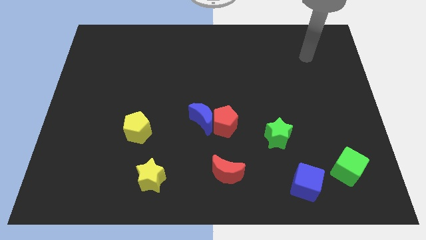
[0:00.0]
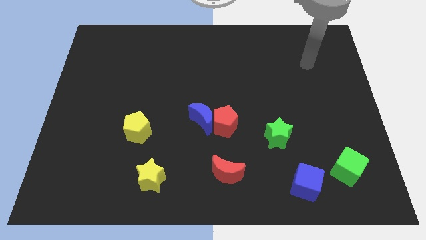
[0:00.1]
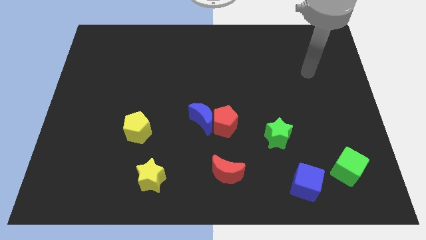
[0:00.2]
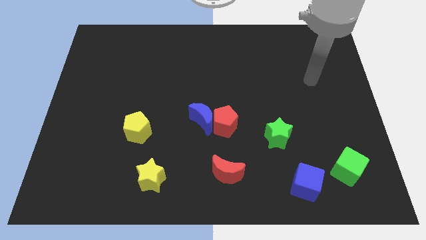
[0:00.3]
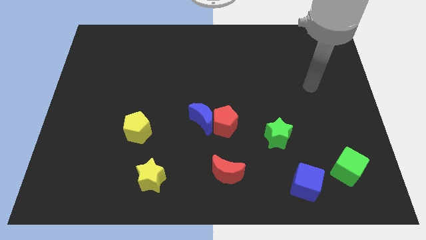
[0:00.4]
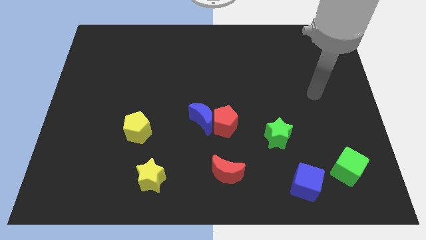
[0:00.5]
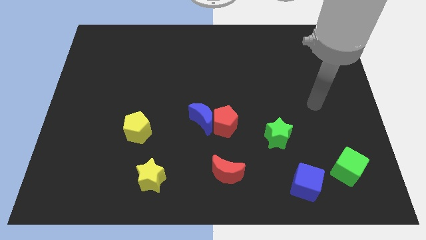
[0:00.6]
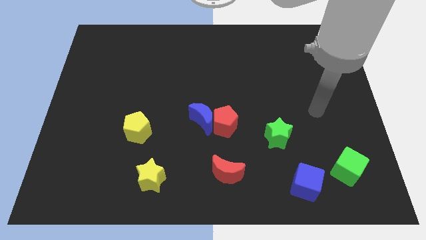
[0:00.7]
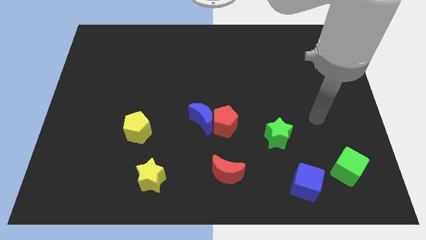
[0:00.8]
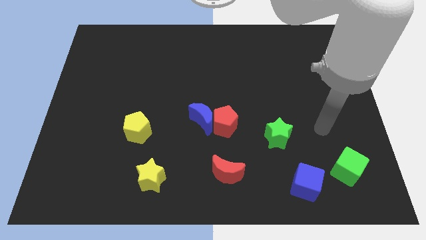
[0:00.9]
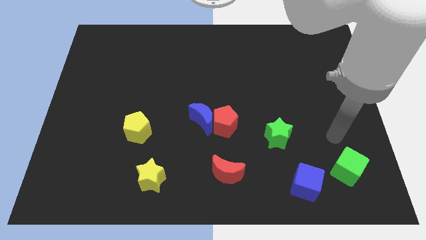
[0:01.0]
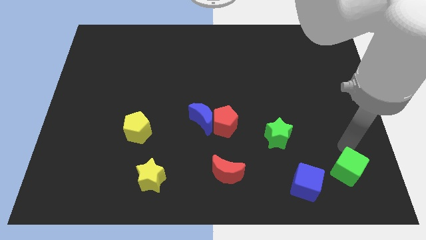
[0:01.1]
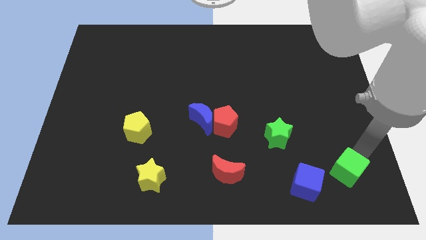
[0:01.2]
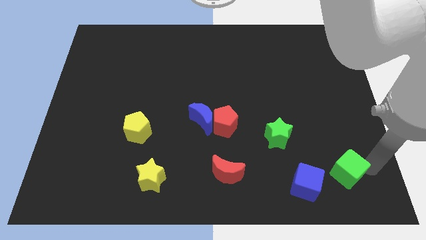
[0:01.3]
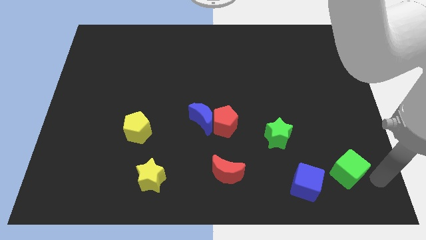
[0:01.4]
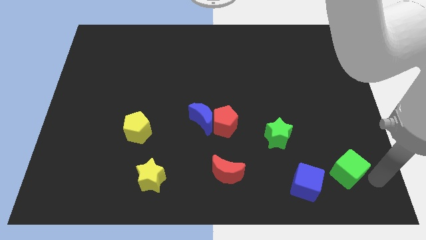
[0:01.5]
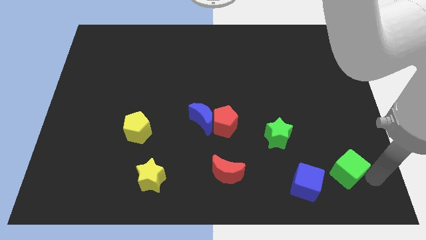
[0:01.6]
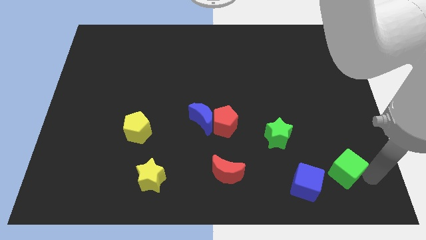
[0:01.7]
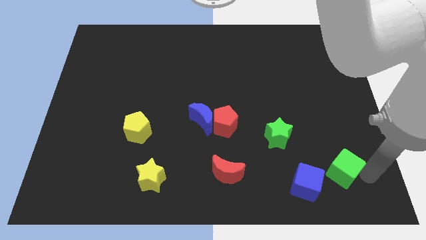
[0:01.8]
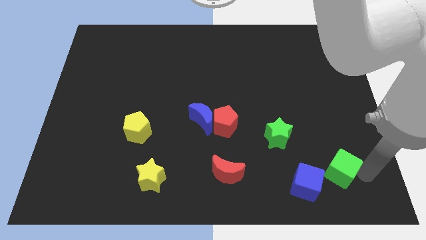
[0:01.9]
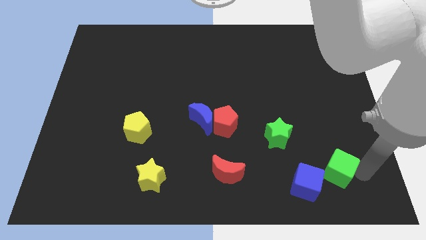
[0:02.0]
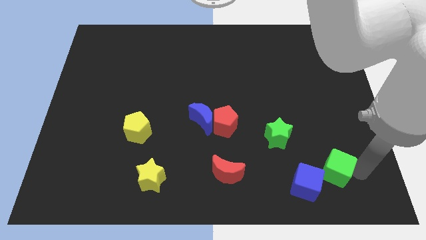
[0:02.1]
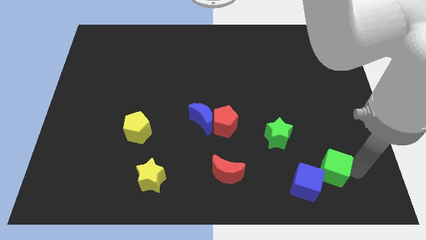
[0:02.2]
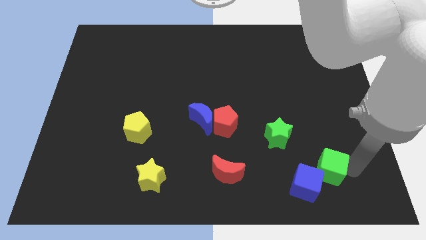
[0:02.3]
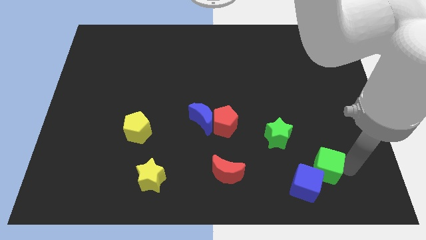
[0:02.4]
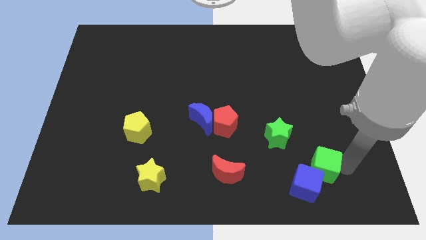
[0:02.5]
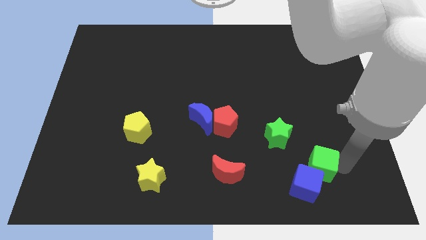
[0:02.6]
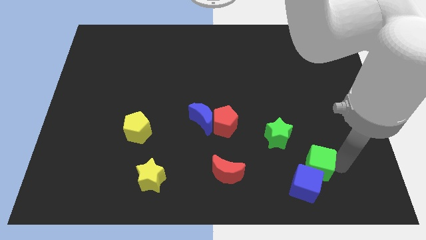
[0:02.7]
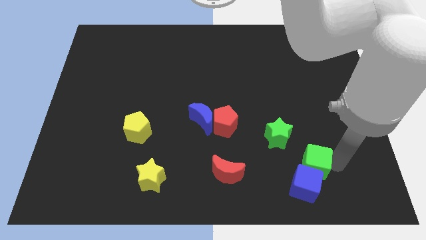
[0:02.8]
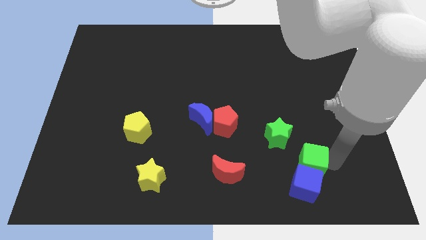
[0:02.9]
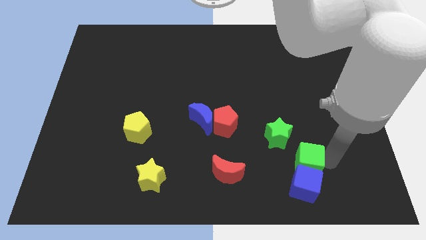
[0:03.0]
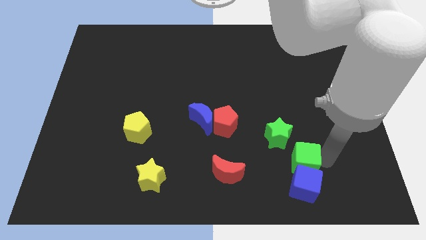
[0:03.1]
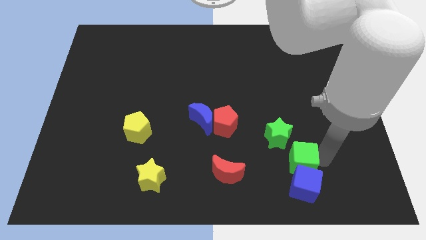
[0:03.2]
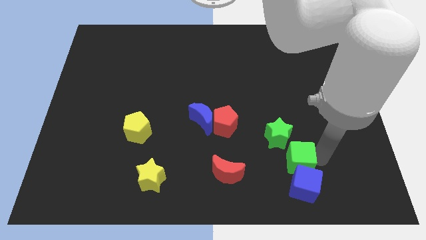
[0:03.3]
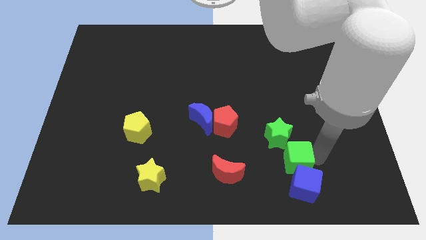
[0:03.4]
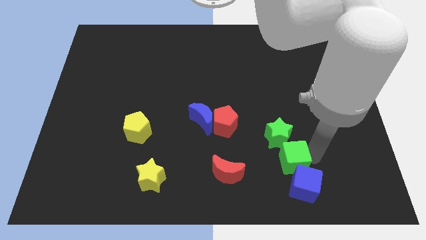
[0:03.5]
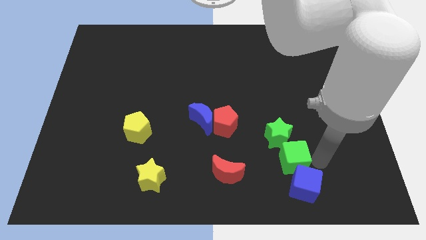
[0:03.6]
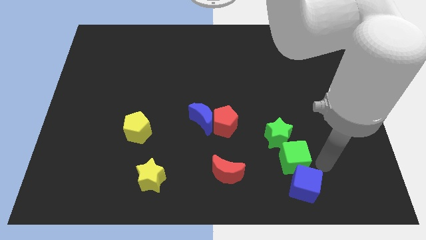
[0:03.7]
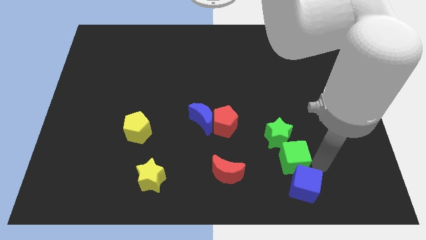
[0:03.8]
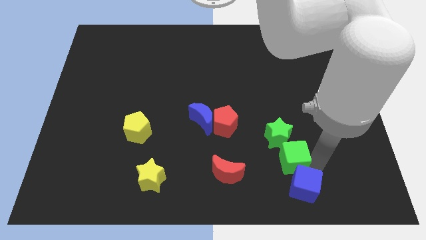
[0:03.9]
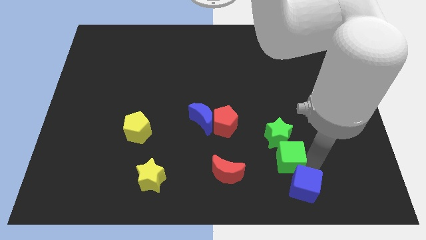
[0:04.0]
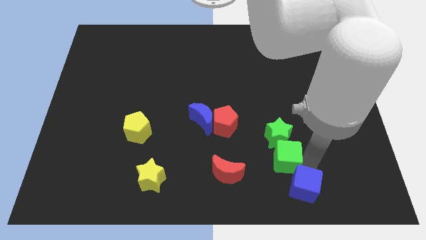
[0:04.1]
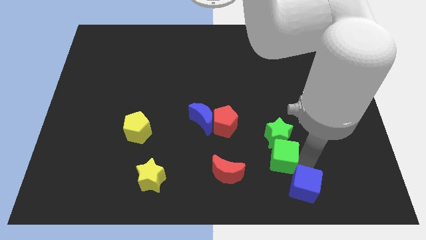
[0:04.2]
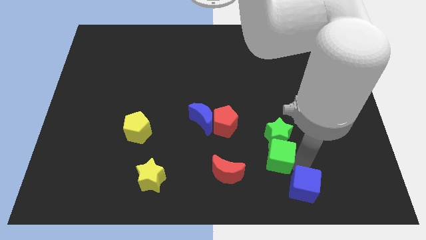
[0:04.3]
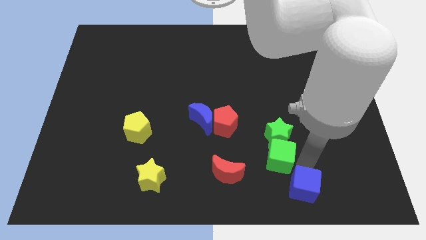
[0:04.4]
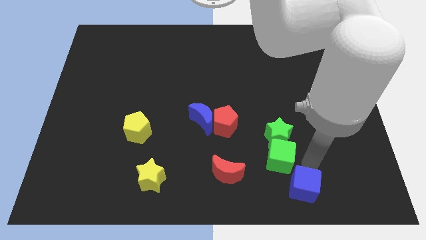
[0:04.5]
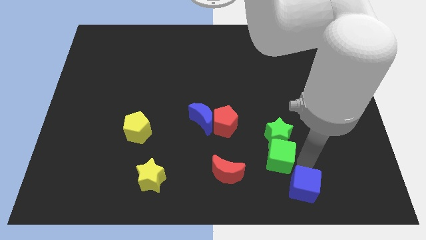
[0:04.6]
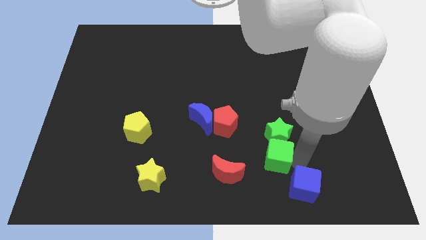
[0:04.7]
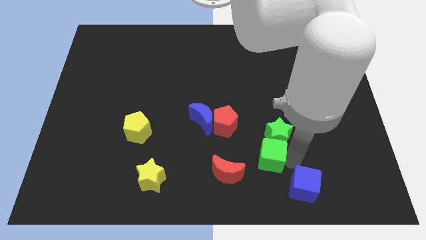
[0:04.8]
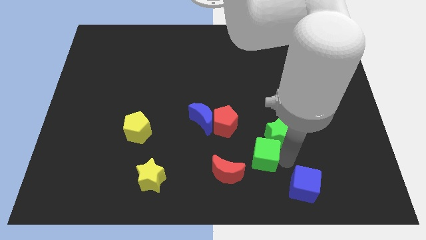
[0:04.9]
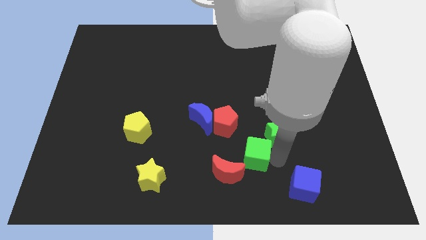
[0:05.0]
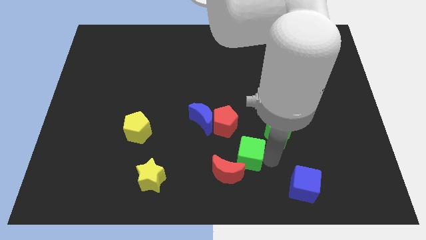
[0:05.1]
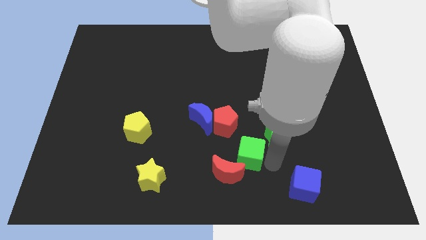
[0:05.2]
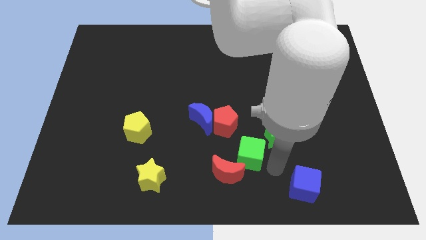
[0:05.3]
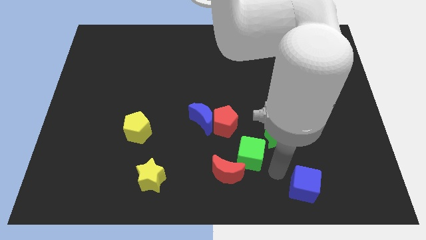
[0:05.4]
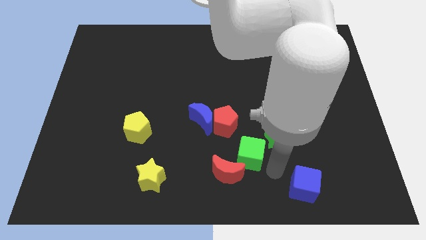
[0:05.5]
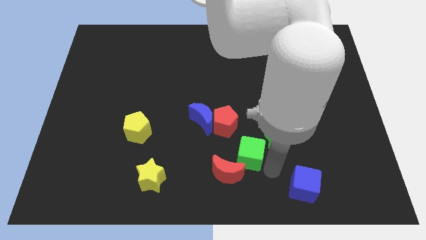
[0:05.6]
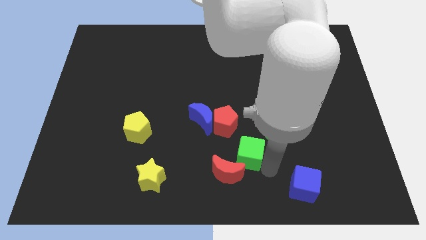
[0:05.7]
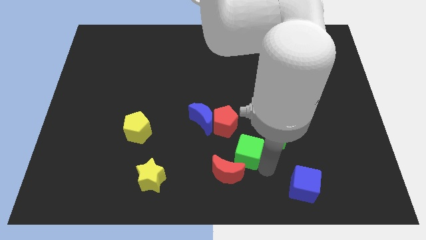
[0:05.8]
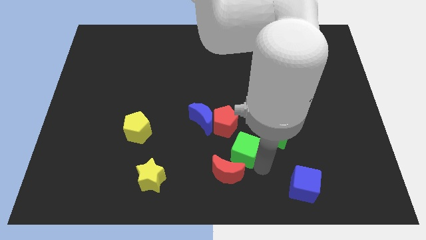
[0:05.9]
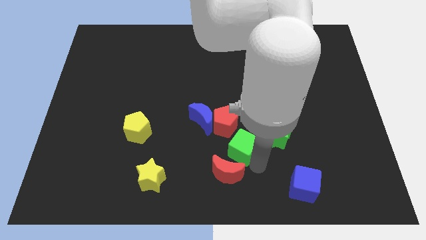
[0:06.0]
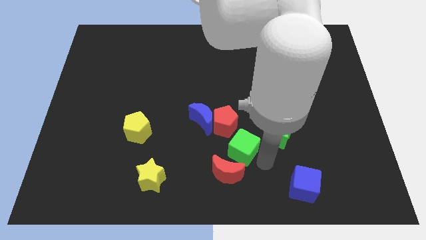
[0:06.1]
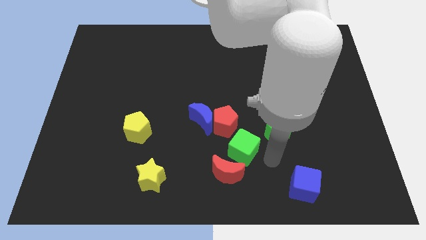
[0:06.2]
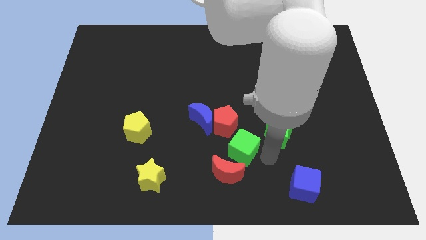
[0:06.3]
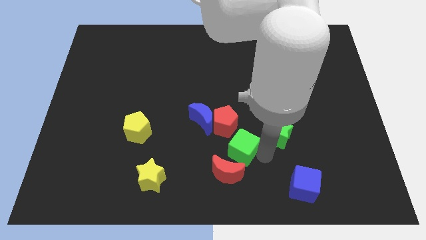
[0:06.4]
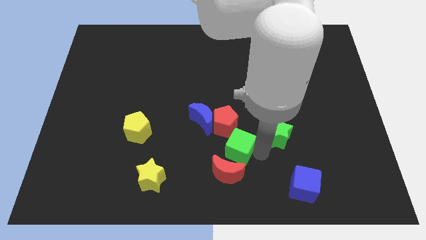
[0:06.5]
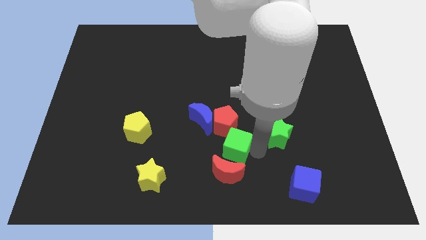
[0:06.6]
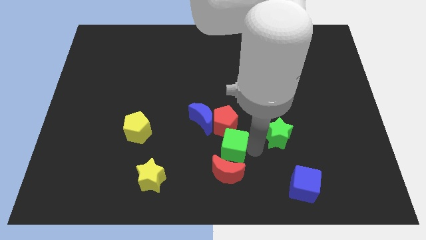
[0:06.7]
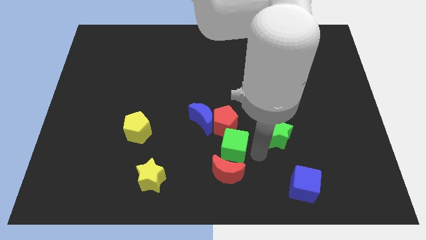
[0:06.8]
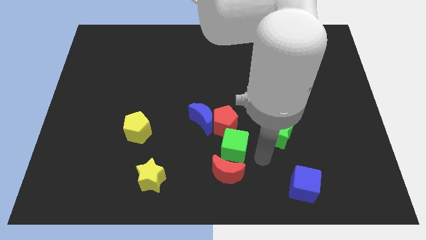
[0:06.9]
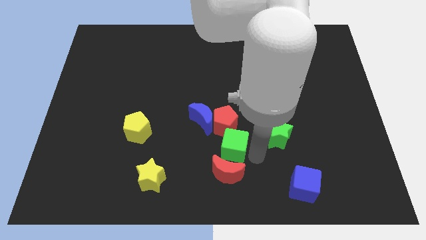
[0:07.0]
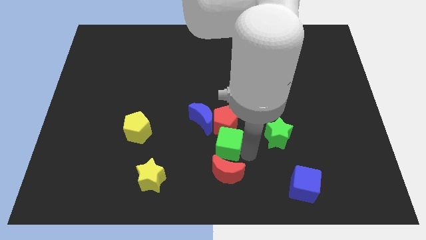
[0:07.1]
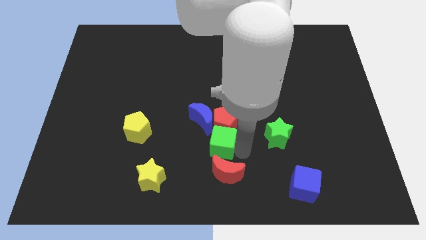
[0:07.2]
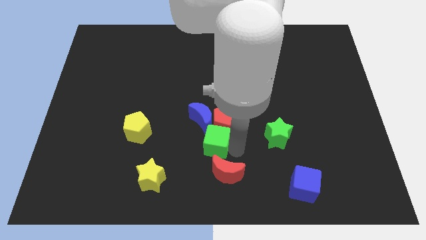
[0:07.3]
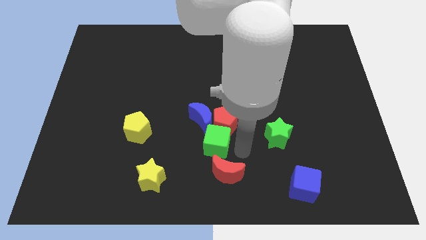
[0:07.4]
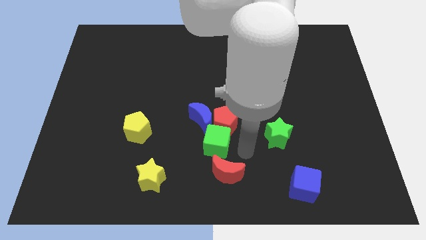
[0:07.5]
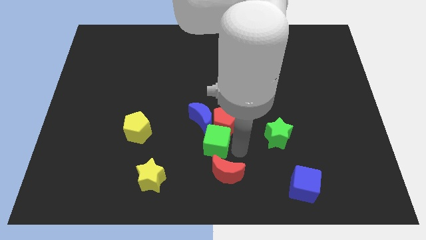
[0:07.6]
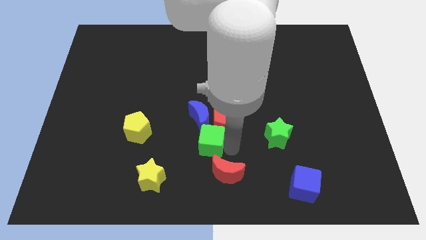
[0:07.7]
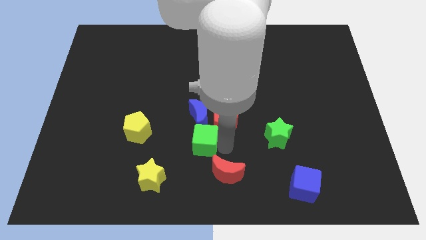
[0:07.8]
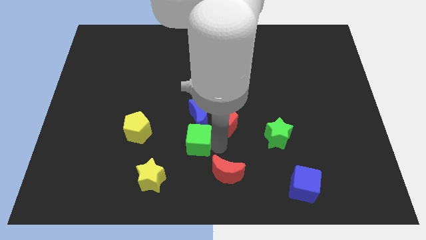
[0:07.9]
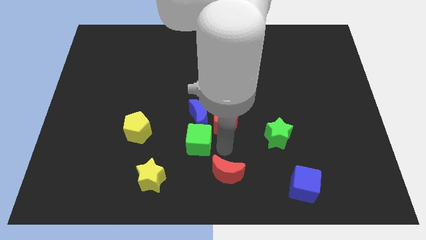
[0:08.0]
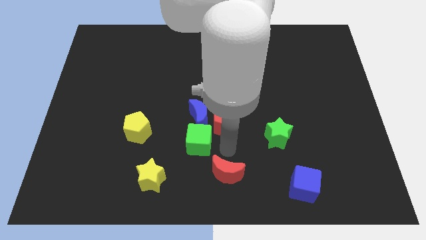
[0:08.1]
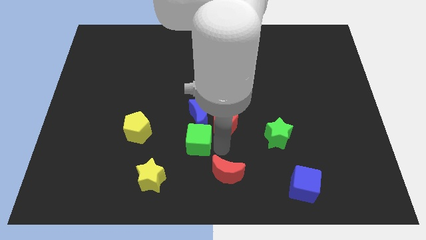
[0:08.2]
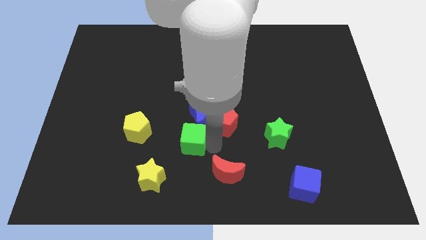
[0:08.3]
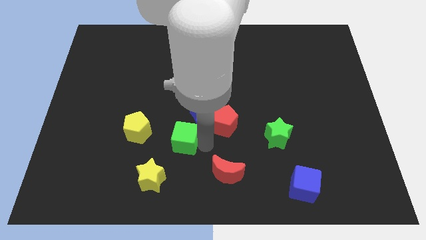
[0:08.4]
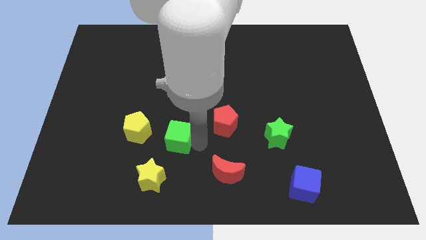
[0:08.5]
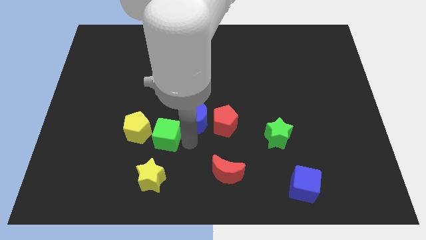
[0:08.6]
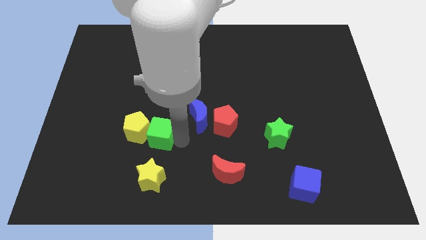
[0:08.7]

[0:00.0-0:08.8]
put the green cube close to the yellow pentagon
